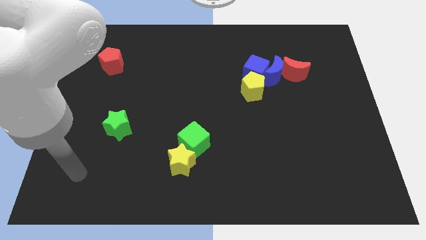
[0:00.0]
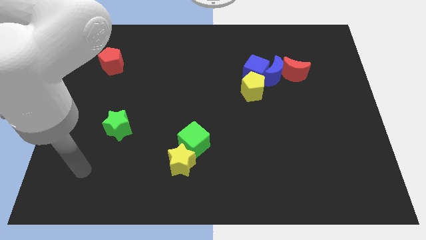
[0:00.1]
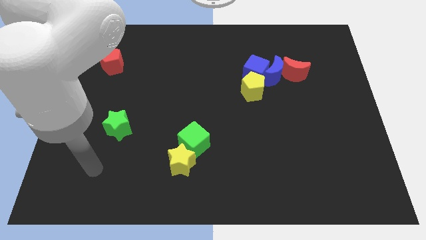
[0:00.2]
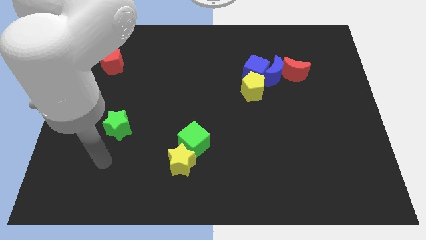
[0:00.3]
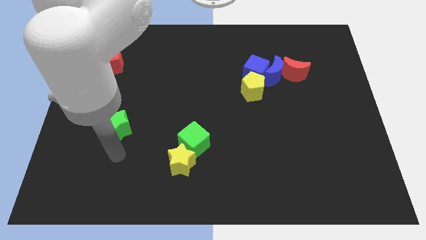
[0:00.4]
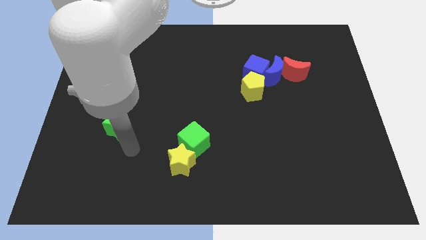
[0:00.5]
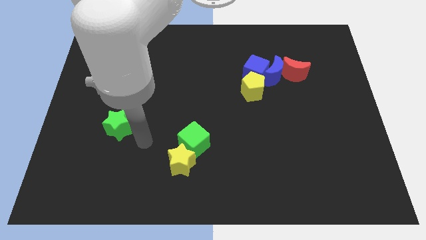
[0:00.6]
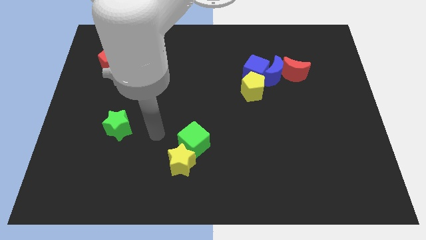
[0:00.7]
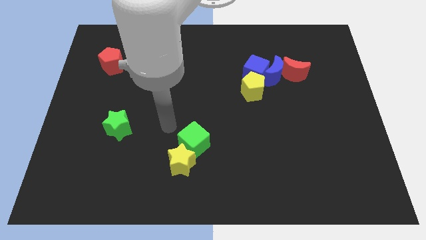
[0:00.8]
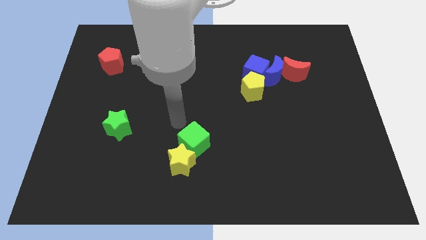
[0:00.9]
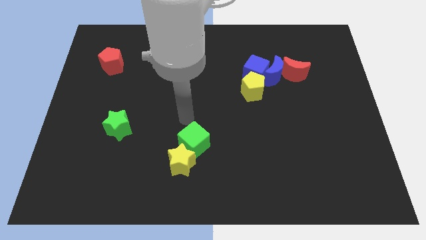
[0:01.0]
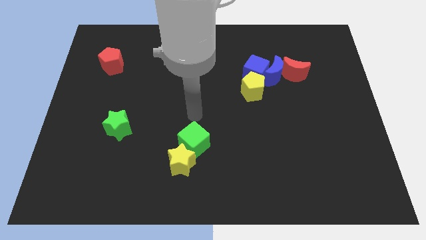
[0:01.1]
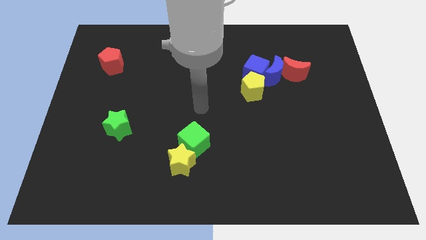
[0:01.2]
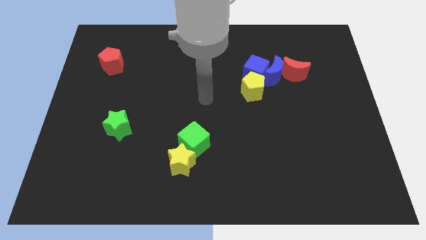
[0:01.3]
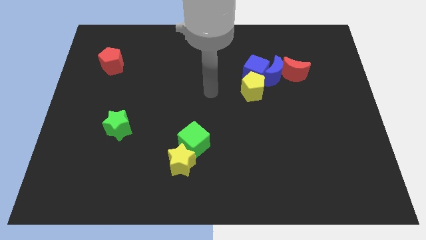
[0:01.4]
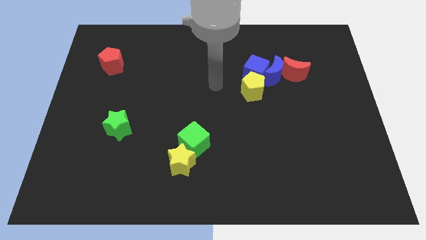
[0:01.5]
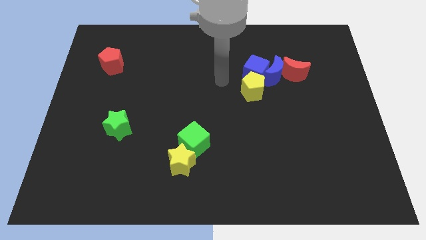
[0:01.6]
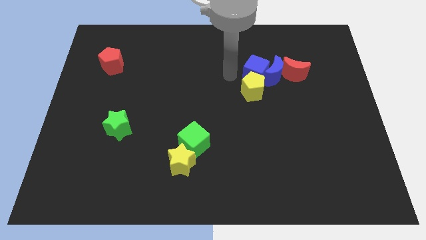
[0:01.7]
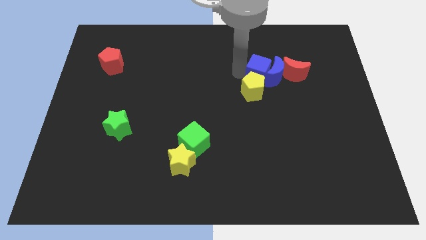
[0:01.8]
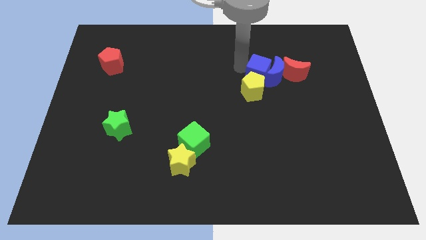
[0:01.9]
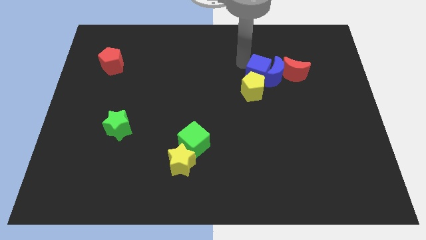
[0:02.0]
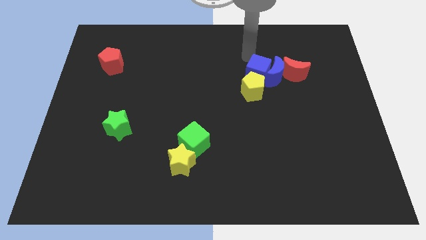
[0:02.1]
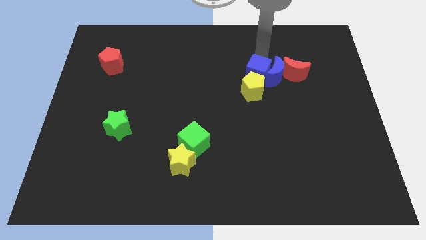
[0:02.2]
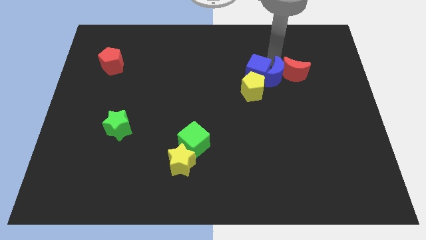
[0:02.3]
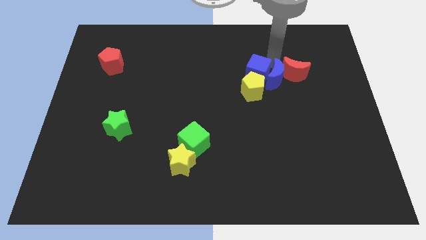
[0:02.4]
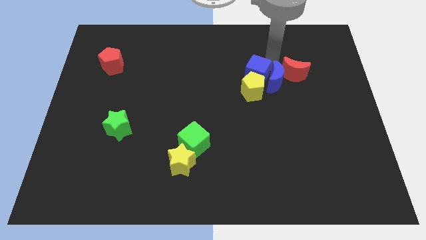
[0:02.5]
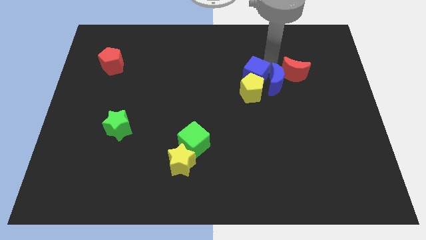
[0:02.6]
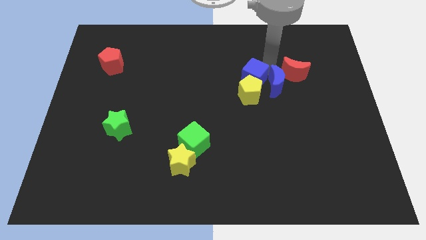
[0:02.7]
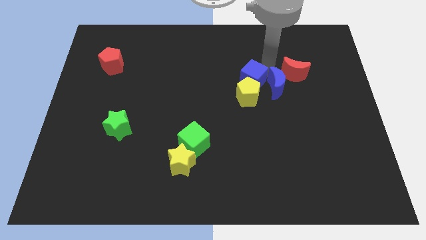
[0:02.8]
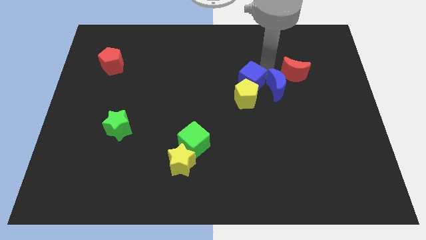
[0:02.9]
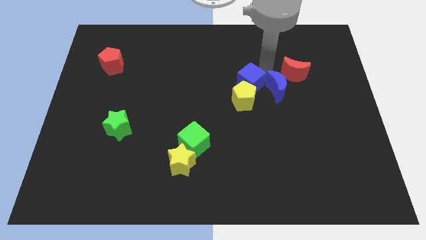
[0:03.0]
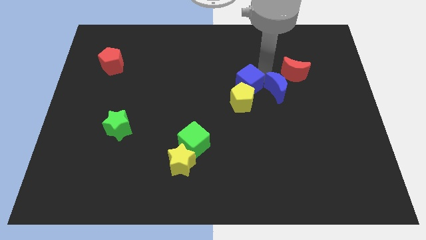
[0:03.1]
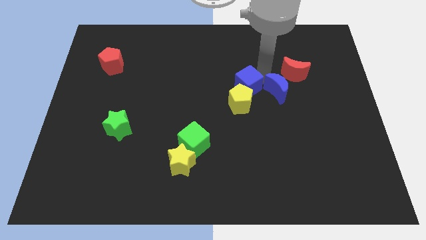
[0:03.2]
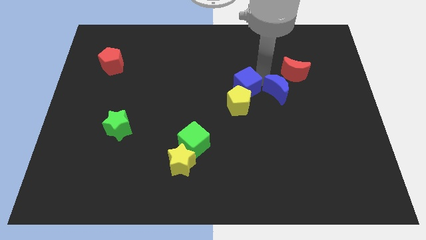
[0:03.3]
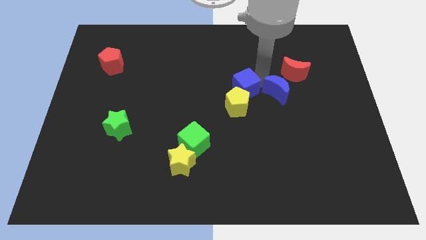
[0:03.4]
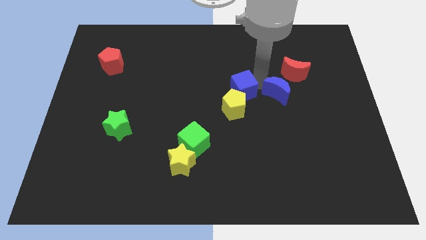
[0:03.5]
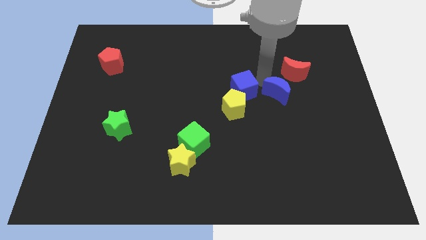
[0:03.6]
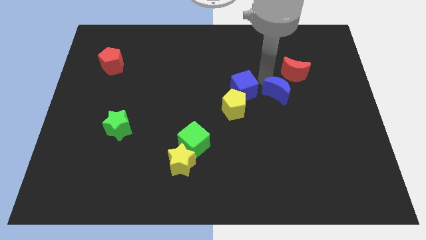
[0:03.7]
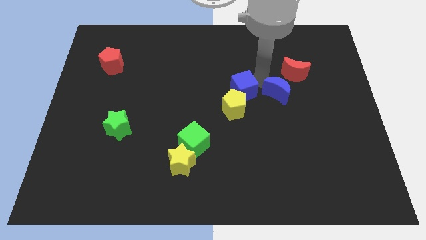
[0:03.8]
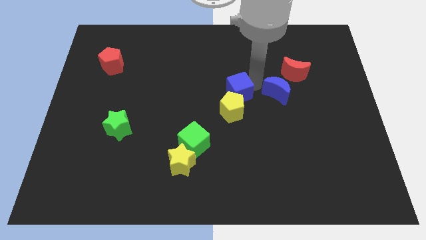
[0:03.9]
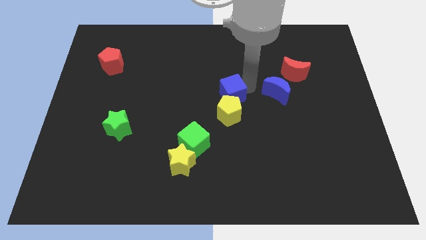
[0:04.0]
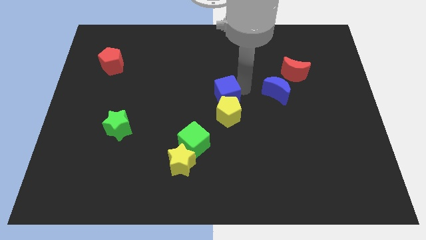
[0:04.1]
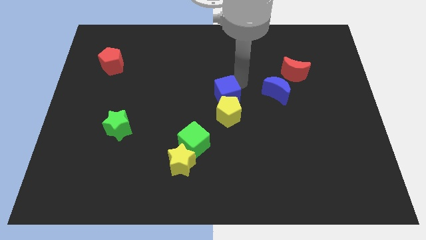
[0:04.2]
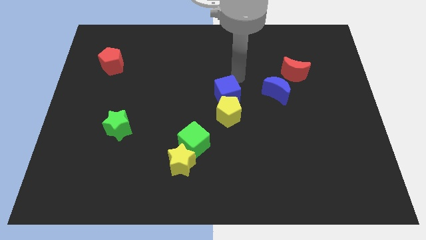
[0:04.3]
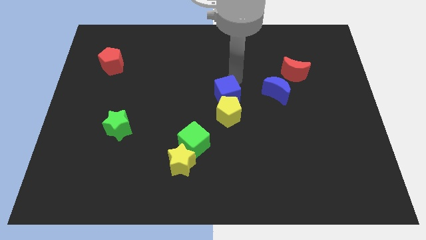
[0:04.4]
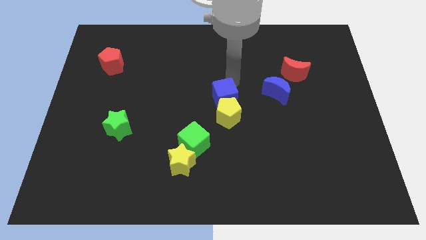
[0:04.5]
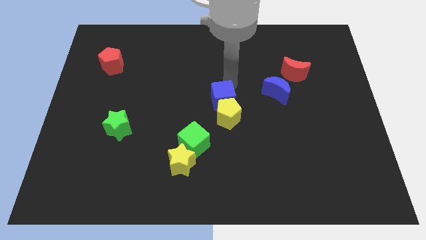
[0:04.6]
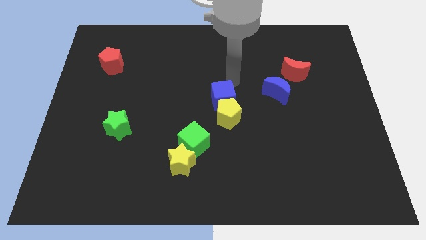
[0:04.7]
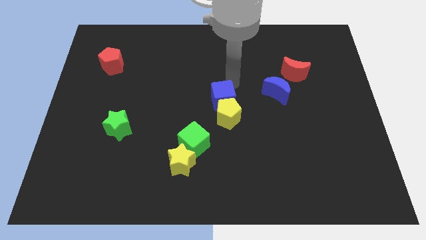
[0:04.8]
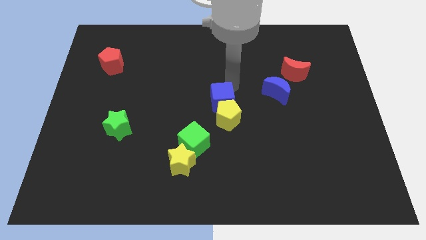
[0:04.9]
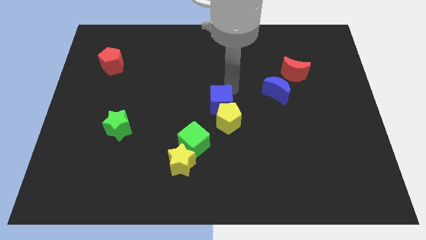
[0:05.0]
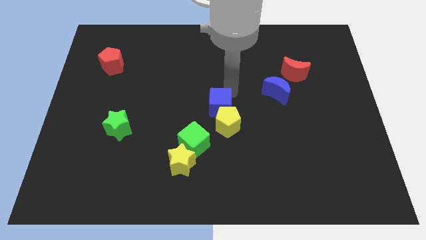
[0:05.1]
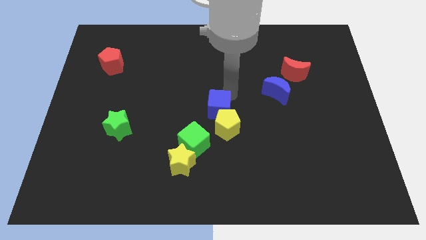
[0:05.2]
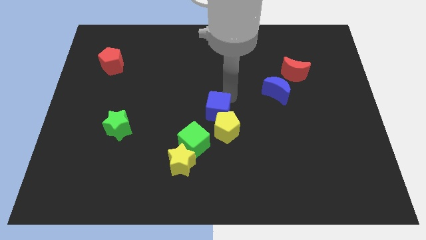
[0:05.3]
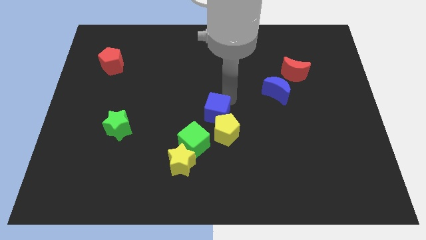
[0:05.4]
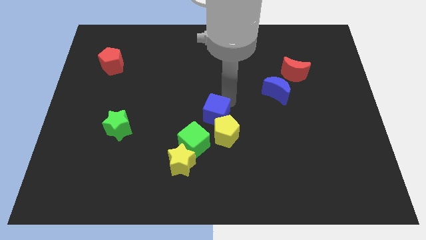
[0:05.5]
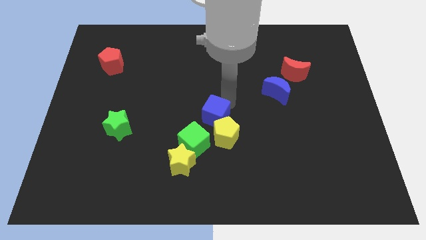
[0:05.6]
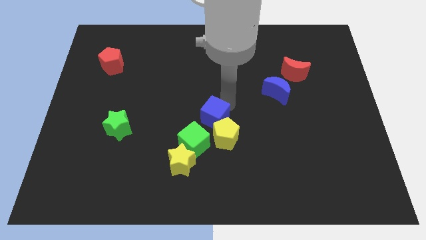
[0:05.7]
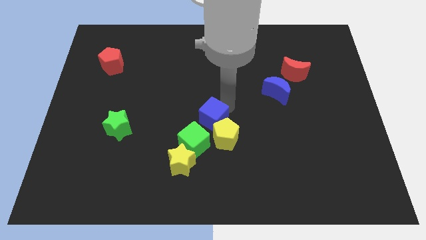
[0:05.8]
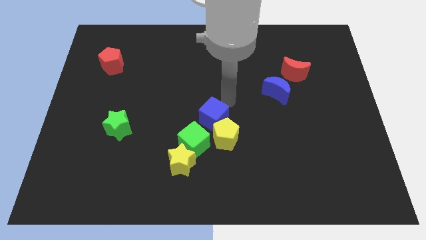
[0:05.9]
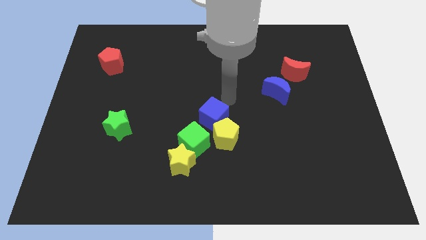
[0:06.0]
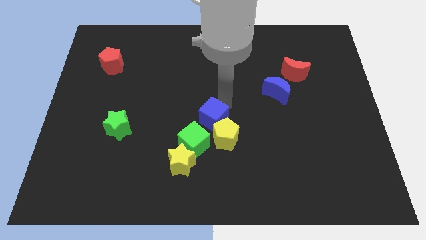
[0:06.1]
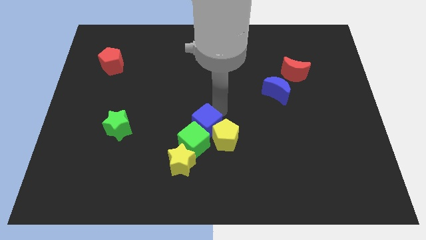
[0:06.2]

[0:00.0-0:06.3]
move the blue cube next to the green cube

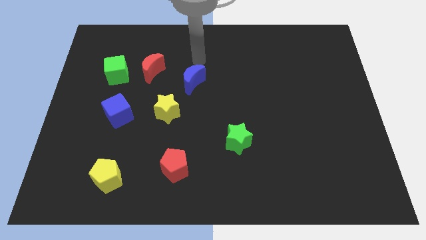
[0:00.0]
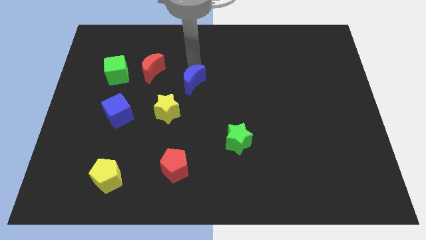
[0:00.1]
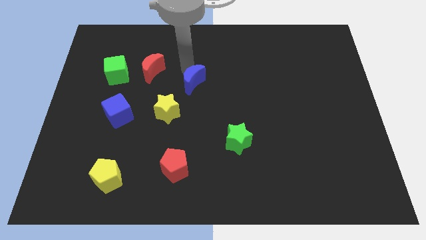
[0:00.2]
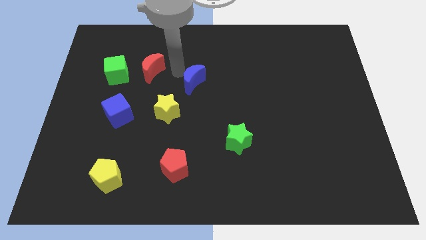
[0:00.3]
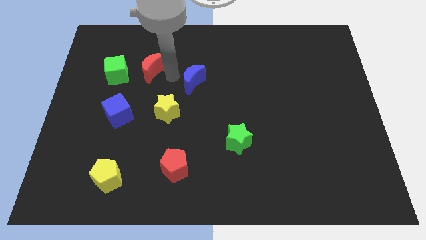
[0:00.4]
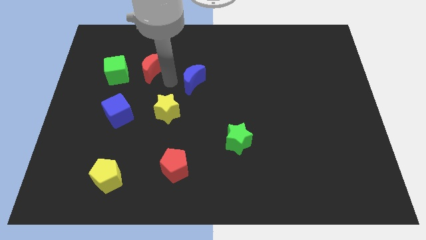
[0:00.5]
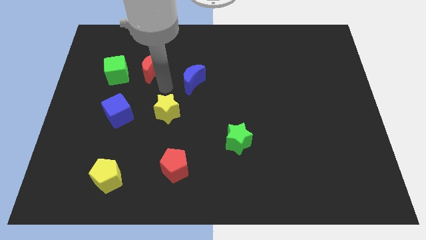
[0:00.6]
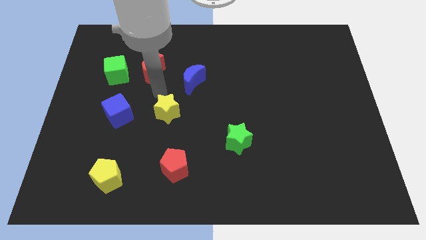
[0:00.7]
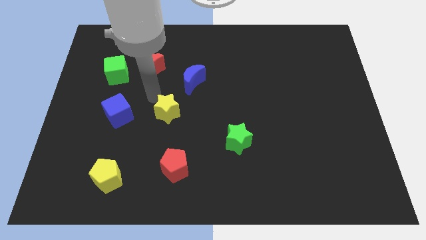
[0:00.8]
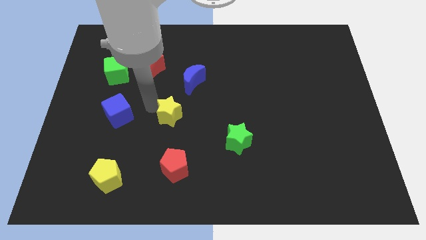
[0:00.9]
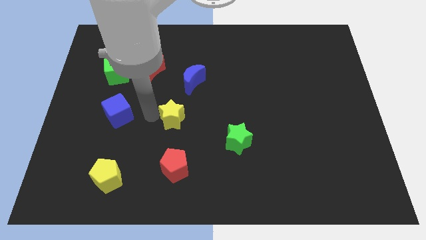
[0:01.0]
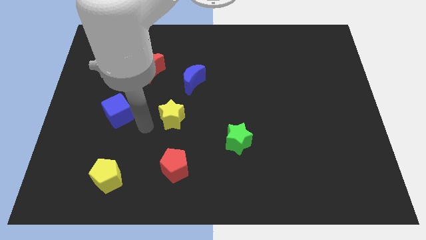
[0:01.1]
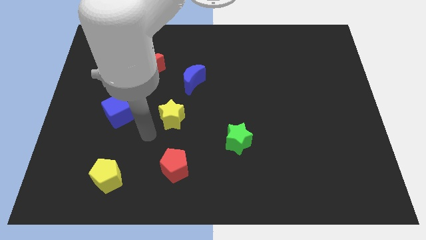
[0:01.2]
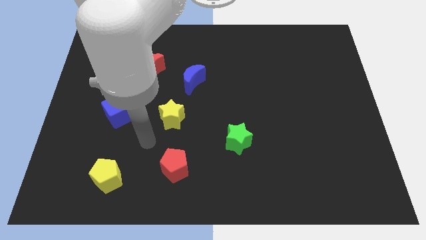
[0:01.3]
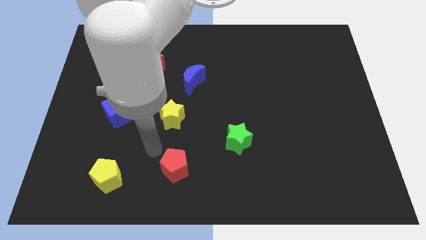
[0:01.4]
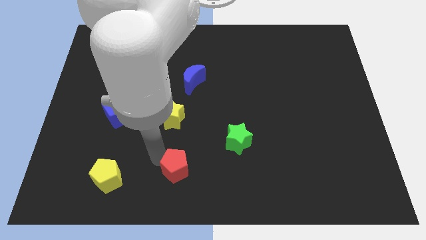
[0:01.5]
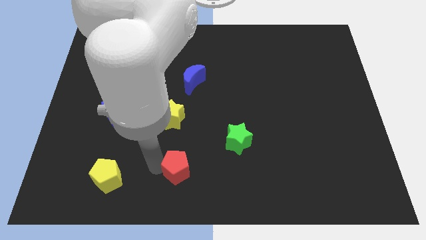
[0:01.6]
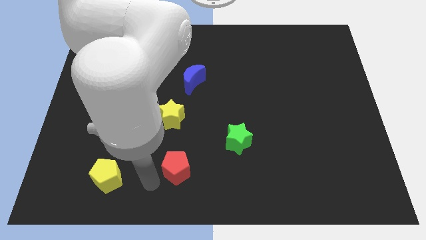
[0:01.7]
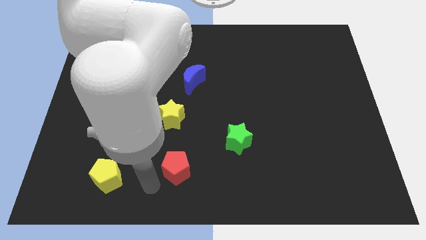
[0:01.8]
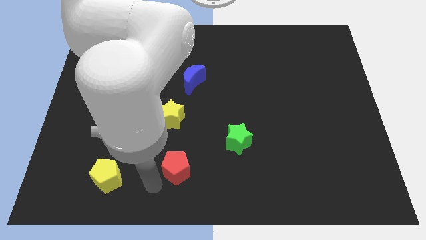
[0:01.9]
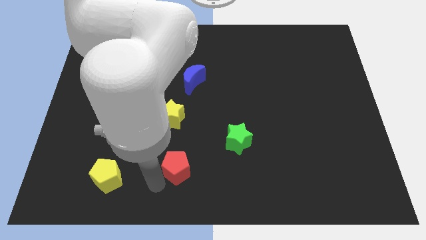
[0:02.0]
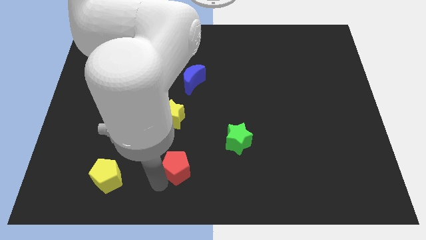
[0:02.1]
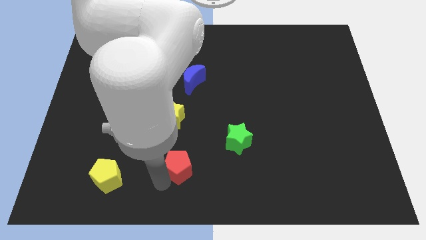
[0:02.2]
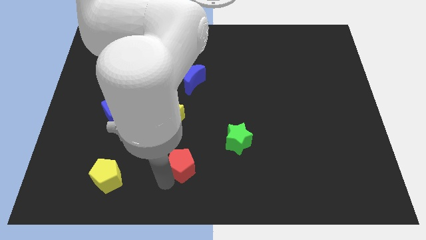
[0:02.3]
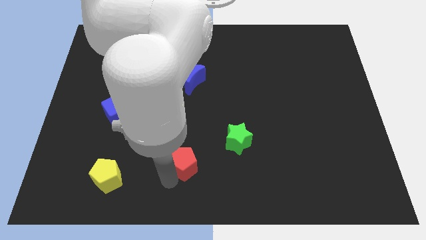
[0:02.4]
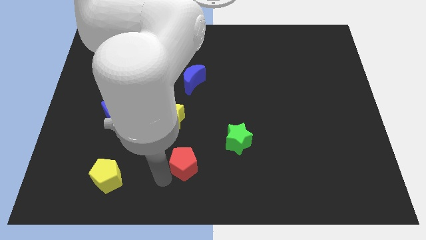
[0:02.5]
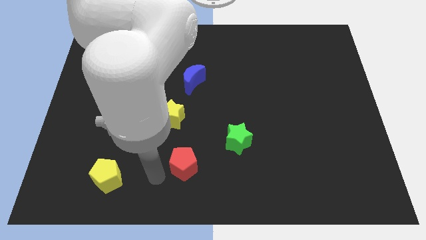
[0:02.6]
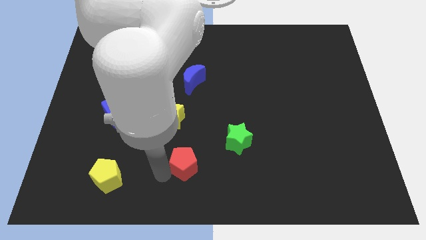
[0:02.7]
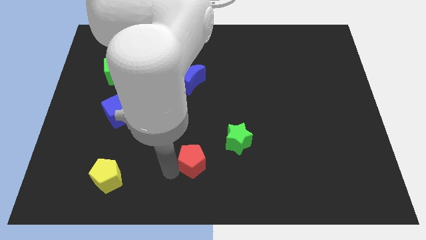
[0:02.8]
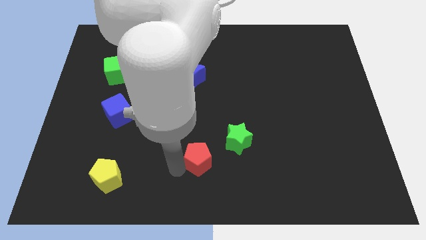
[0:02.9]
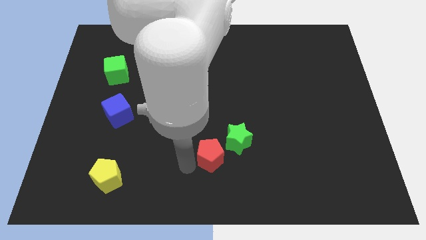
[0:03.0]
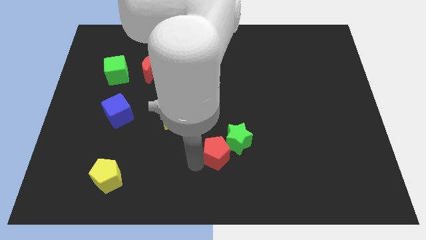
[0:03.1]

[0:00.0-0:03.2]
move the red pentagon towards the green star
